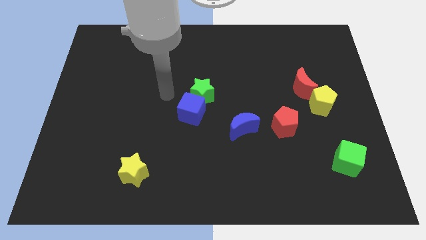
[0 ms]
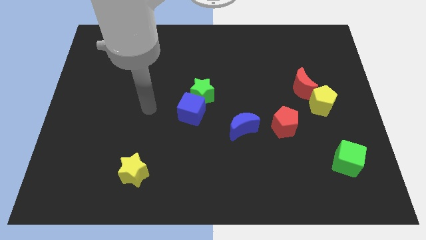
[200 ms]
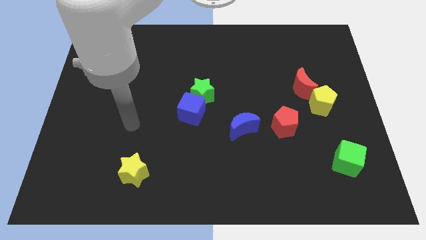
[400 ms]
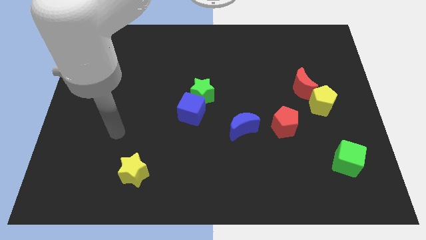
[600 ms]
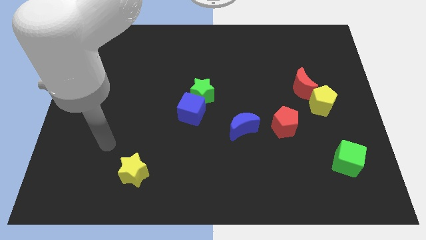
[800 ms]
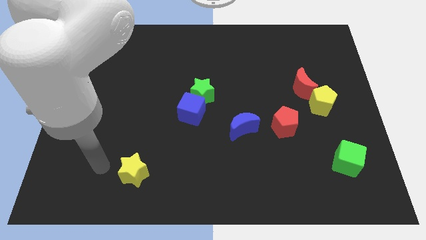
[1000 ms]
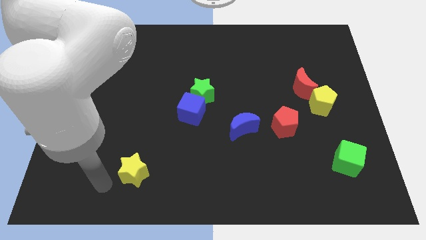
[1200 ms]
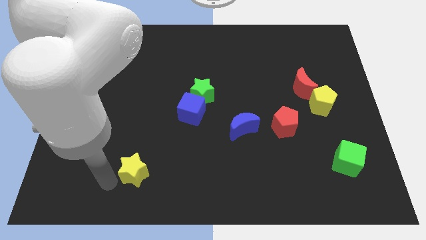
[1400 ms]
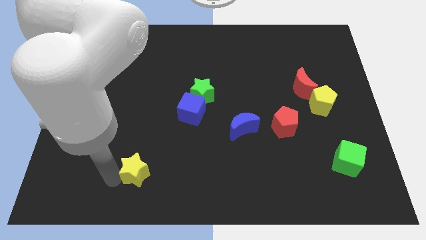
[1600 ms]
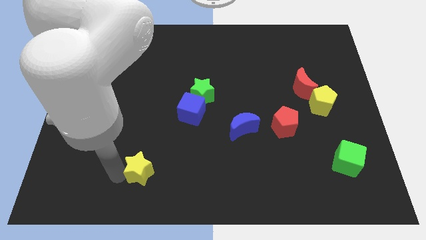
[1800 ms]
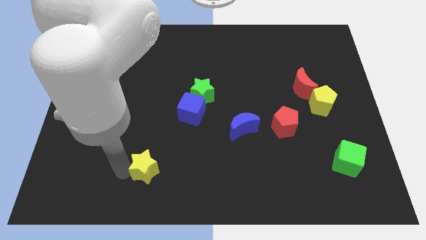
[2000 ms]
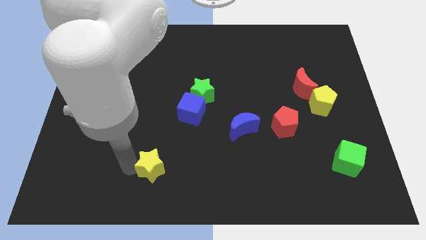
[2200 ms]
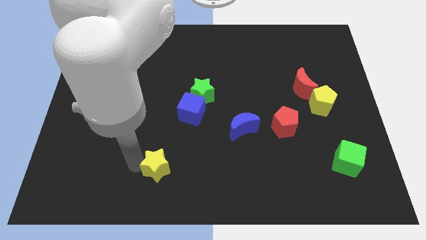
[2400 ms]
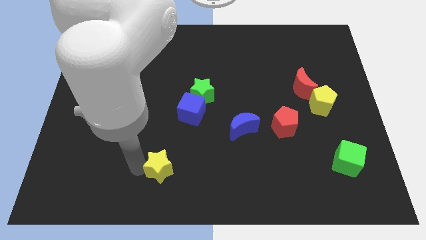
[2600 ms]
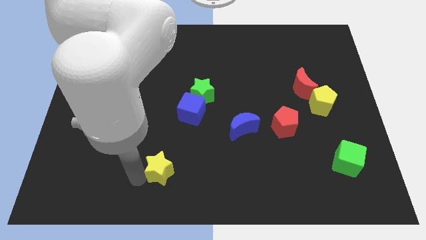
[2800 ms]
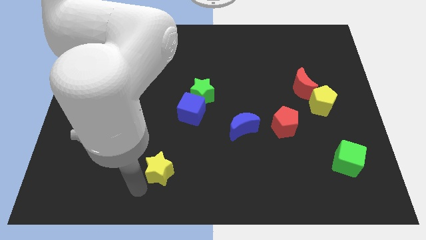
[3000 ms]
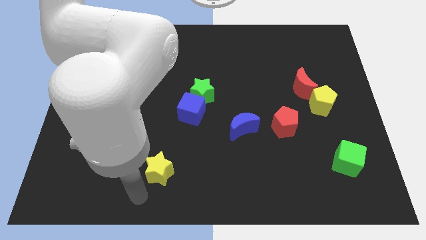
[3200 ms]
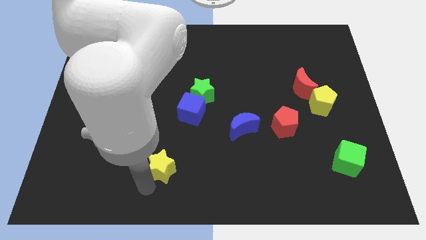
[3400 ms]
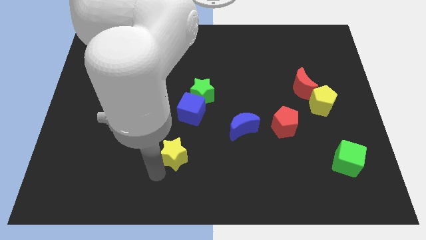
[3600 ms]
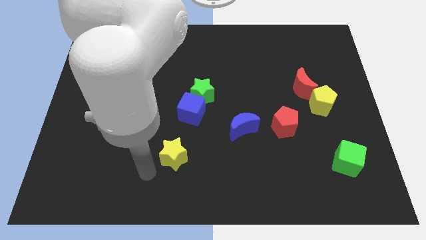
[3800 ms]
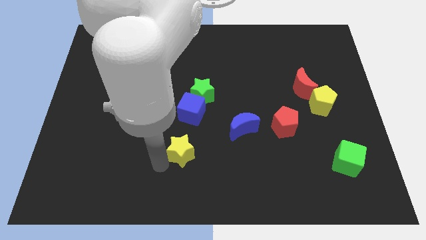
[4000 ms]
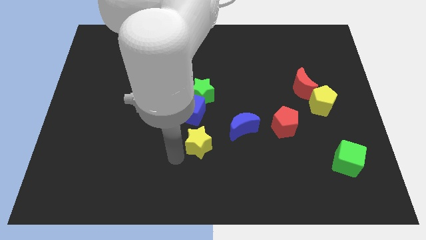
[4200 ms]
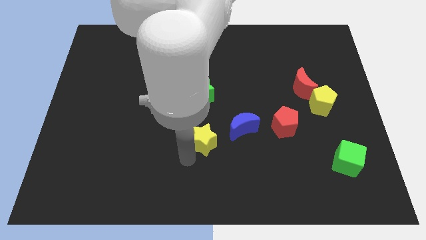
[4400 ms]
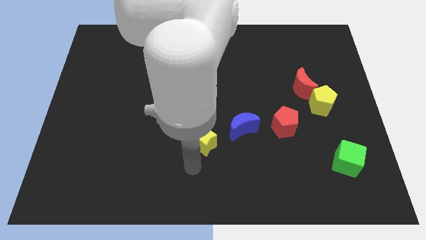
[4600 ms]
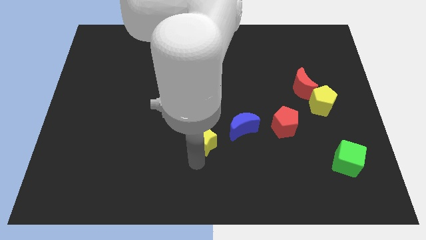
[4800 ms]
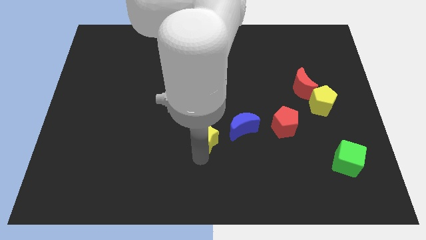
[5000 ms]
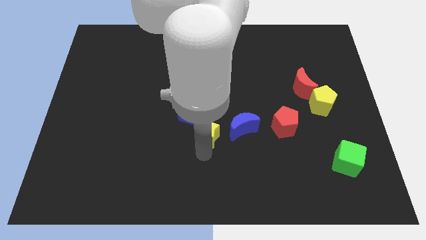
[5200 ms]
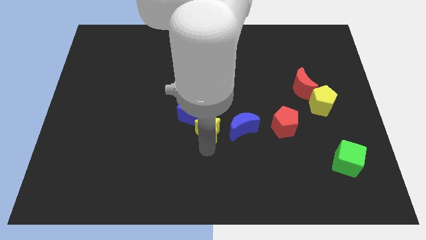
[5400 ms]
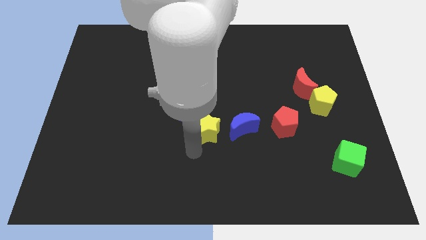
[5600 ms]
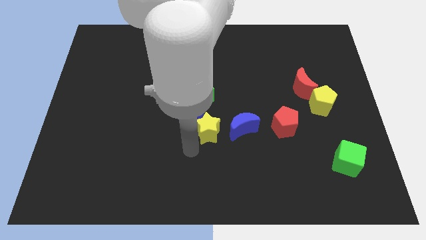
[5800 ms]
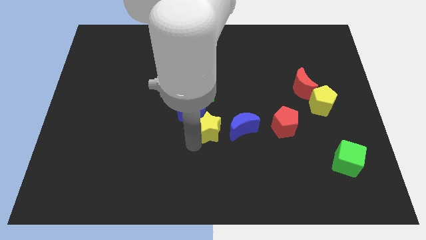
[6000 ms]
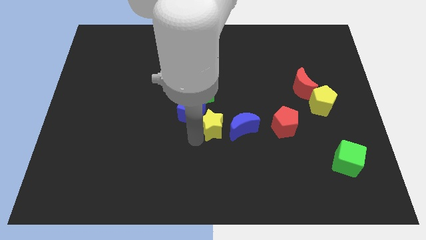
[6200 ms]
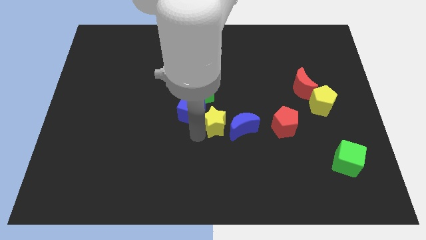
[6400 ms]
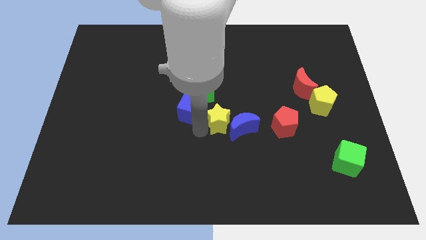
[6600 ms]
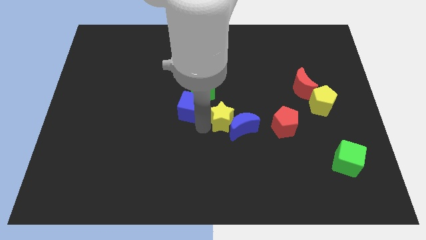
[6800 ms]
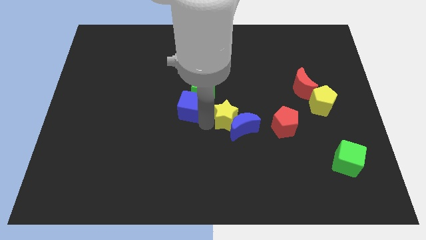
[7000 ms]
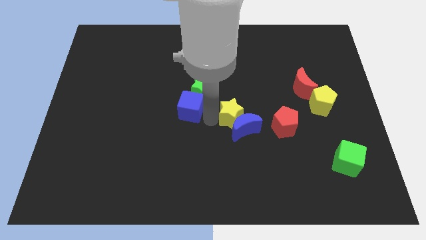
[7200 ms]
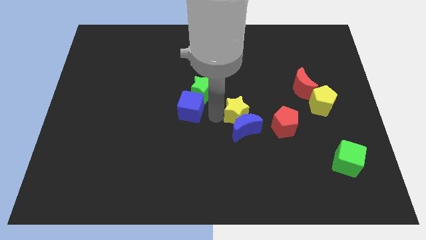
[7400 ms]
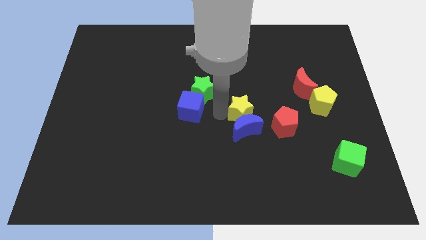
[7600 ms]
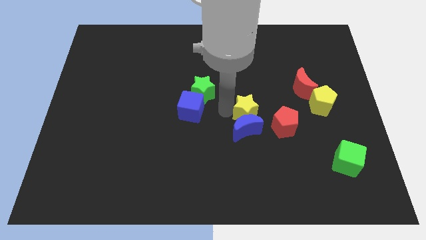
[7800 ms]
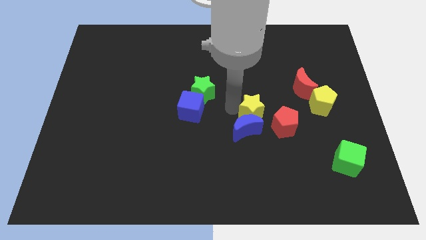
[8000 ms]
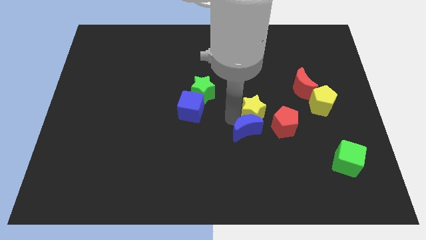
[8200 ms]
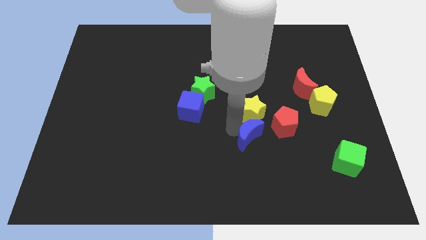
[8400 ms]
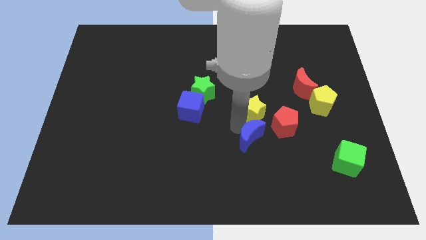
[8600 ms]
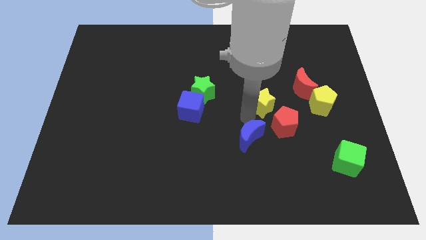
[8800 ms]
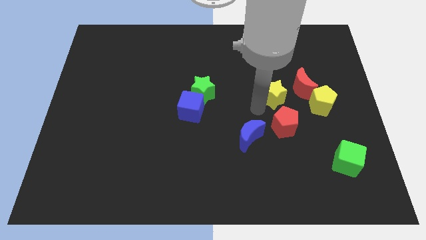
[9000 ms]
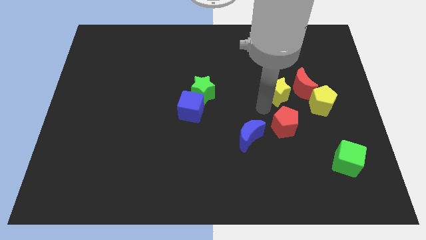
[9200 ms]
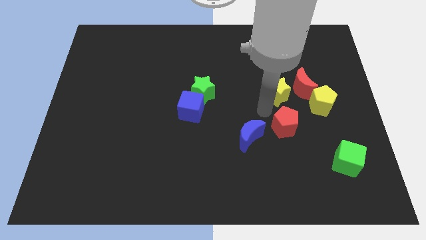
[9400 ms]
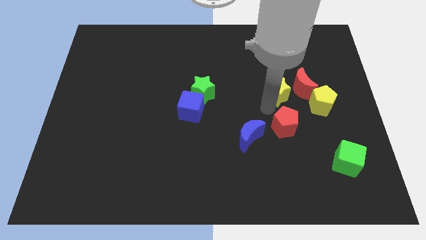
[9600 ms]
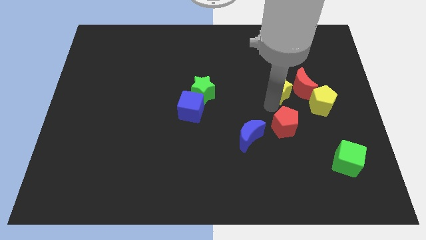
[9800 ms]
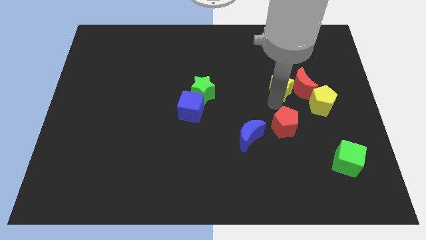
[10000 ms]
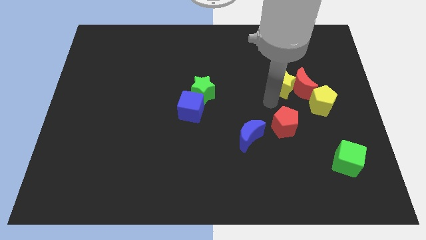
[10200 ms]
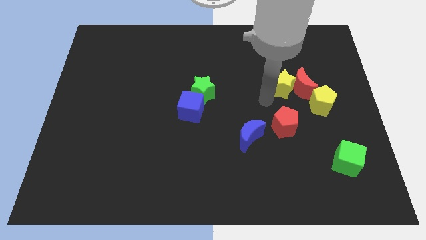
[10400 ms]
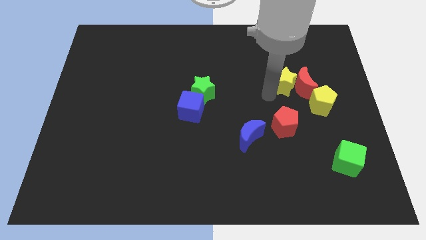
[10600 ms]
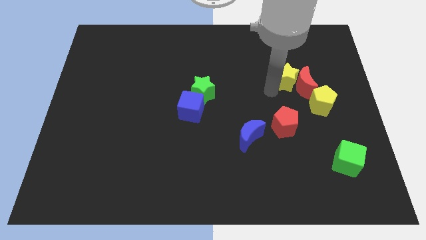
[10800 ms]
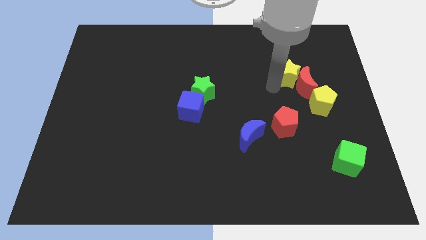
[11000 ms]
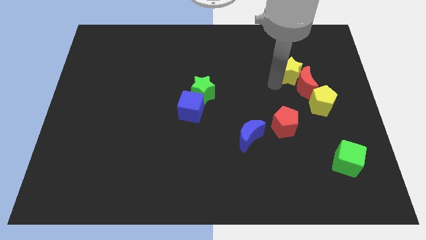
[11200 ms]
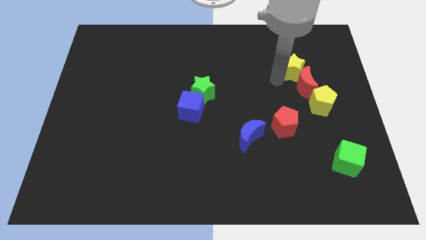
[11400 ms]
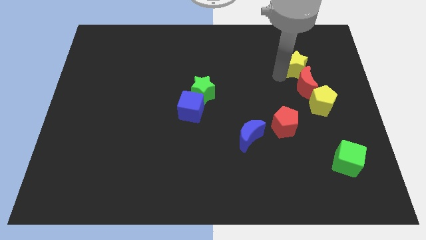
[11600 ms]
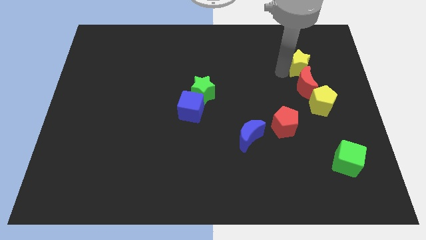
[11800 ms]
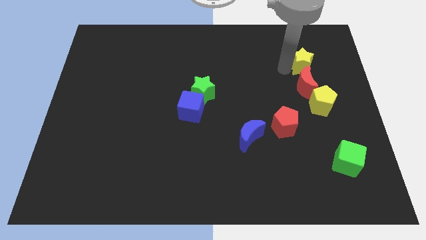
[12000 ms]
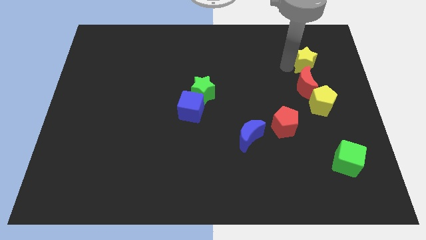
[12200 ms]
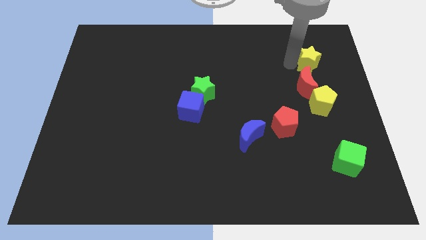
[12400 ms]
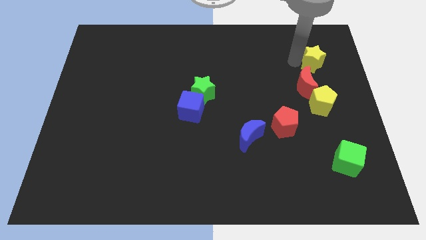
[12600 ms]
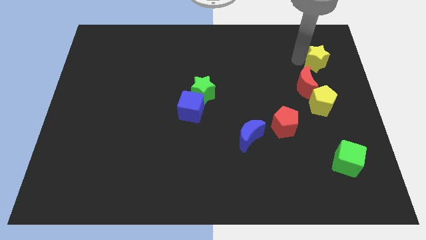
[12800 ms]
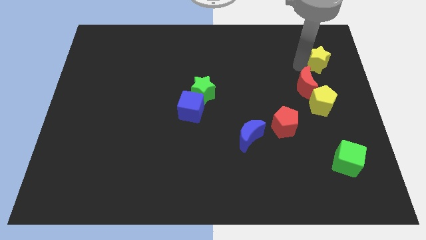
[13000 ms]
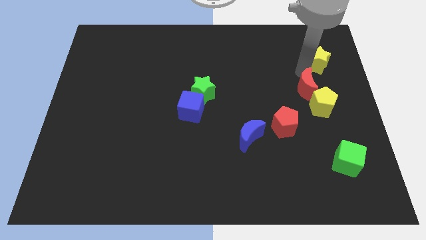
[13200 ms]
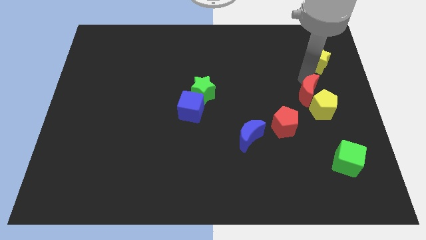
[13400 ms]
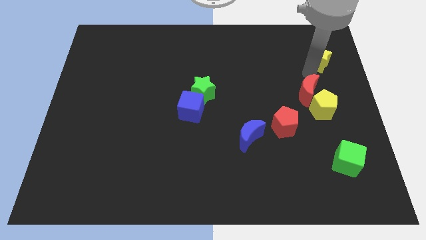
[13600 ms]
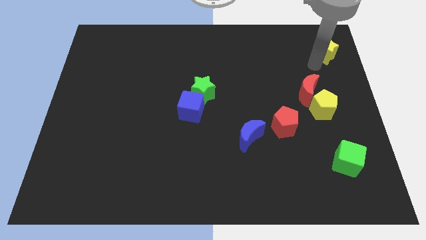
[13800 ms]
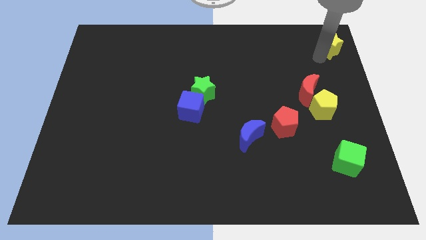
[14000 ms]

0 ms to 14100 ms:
push the yellow star to the top right
